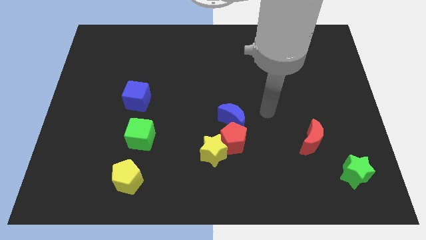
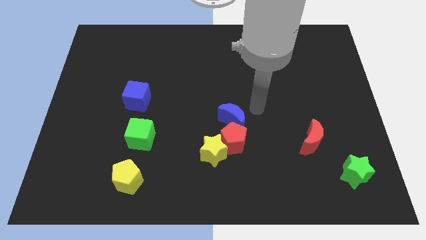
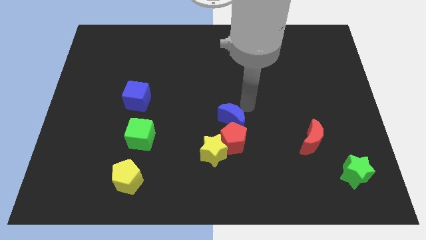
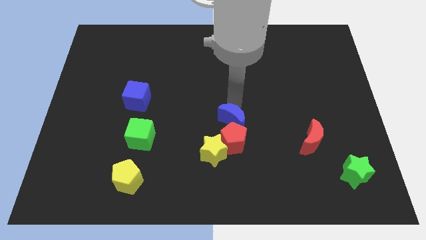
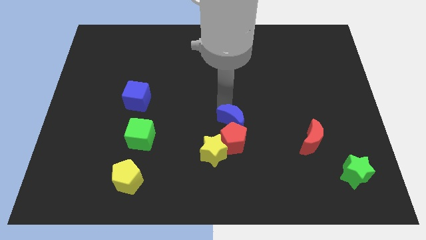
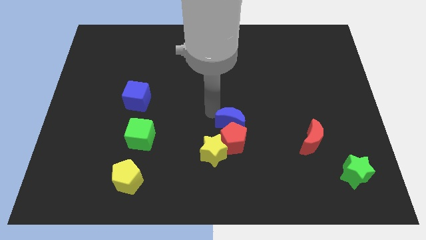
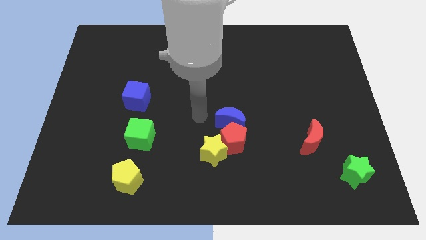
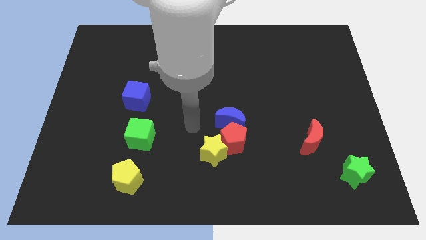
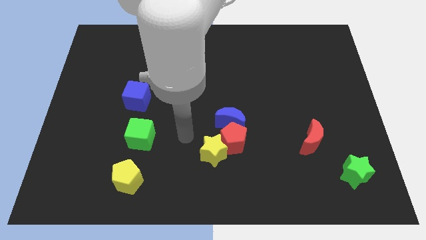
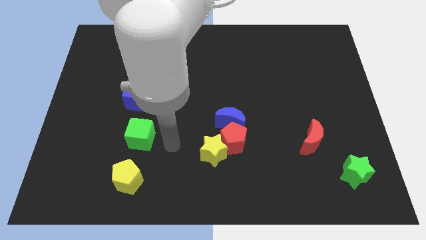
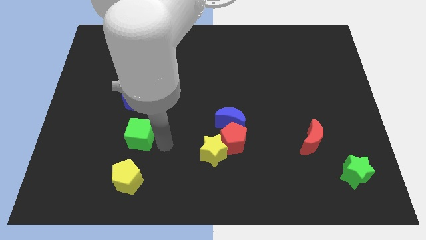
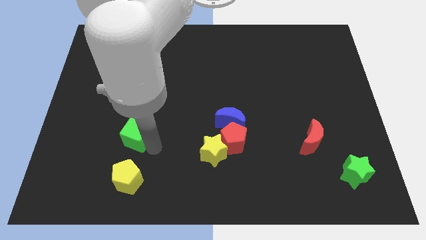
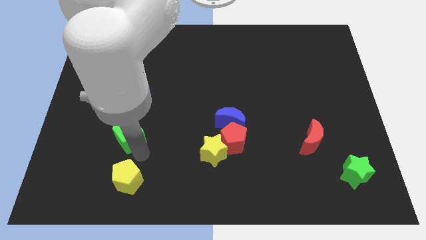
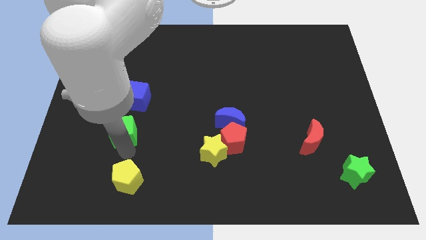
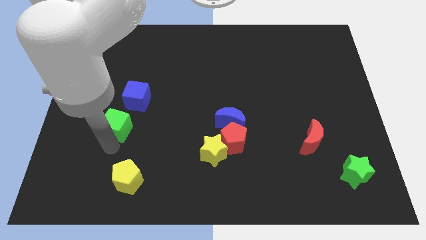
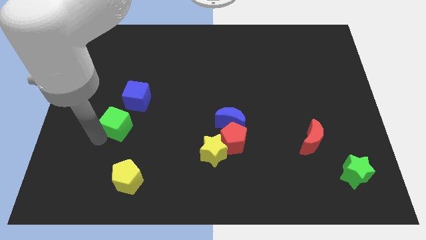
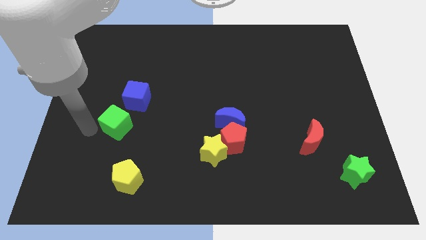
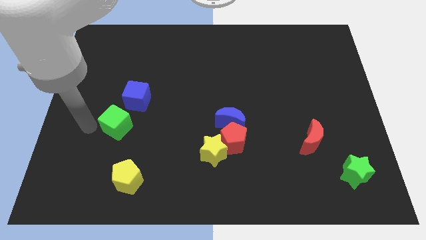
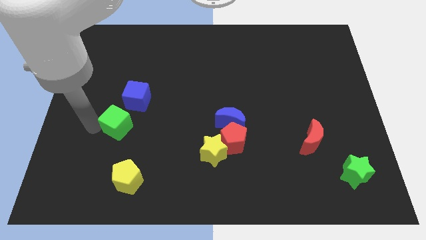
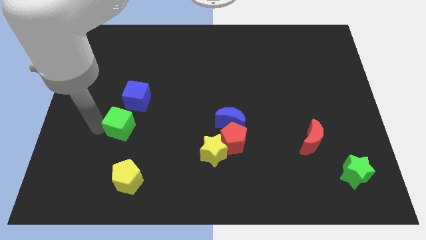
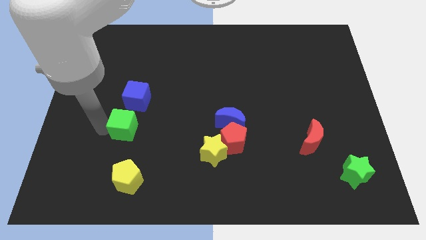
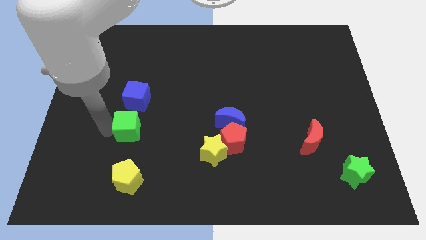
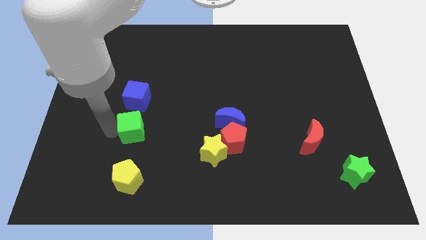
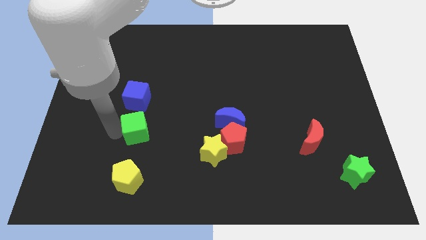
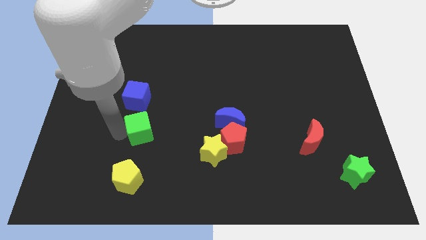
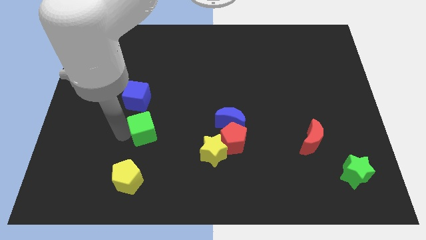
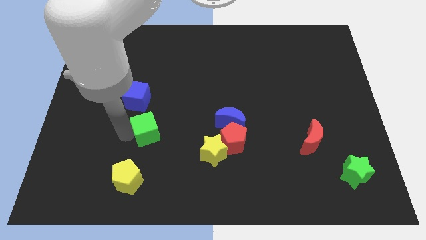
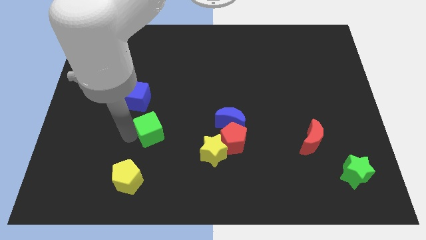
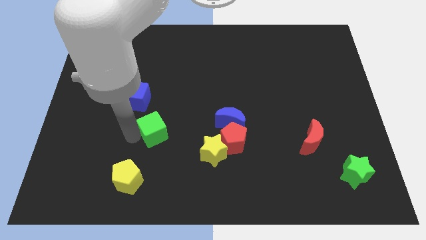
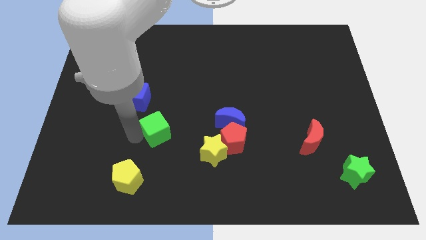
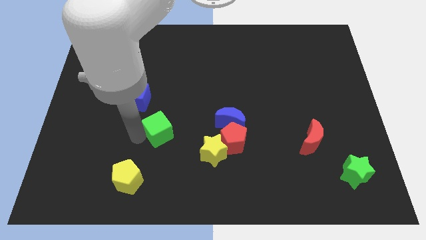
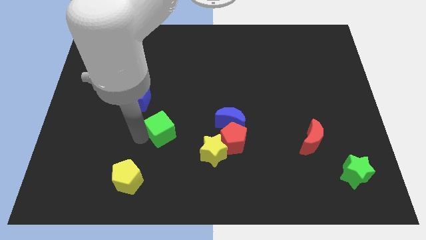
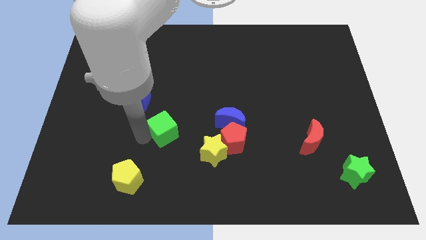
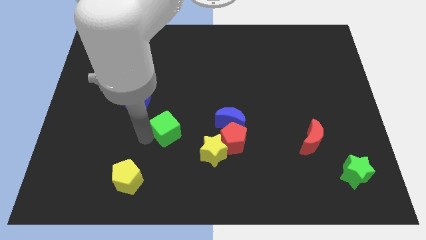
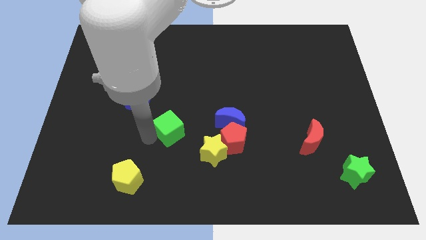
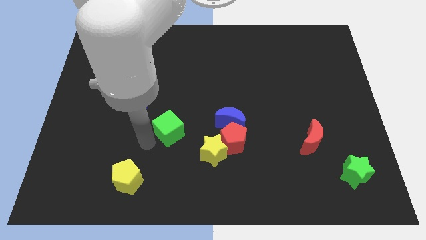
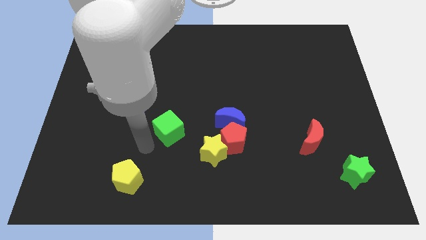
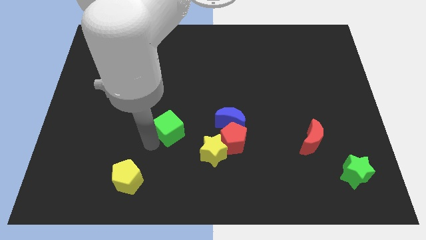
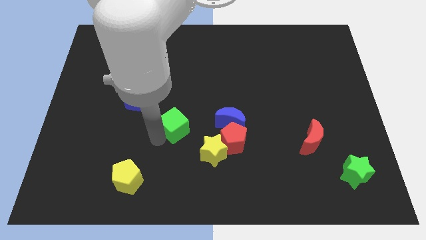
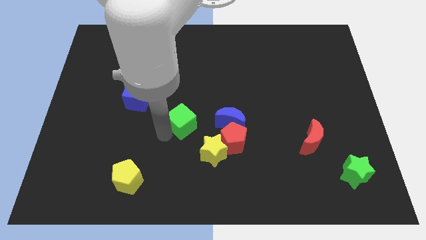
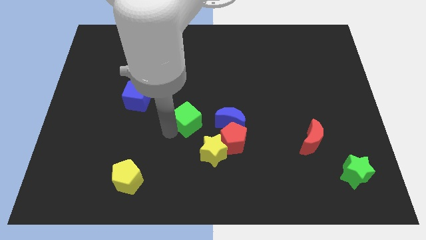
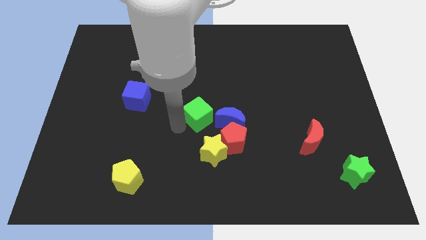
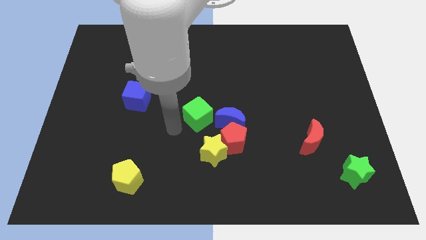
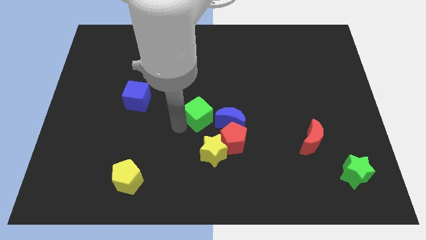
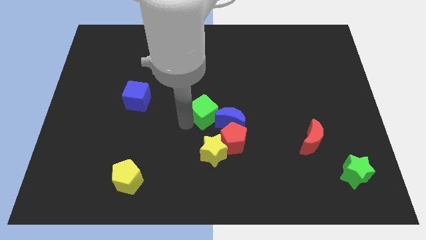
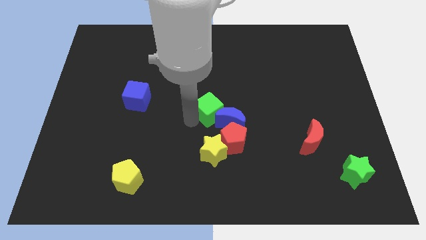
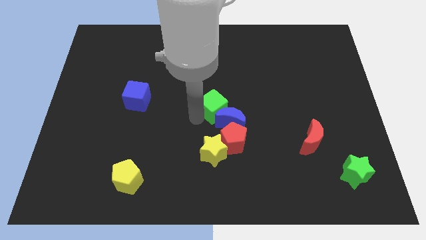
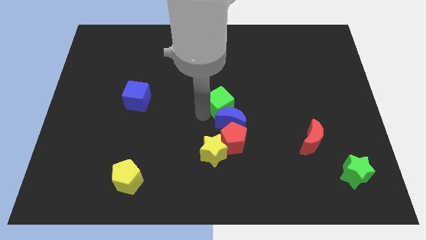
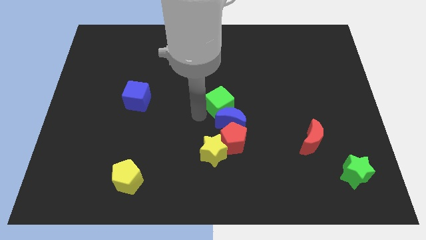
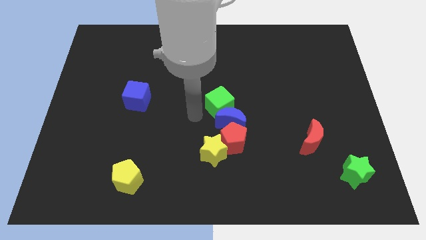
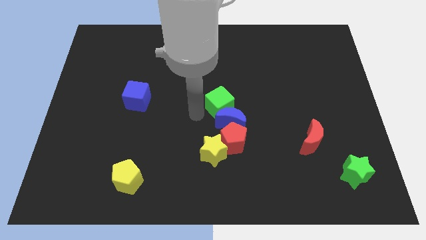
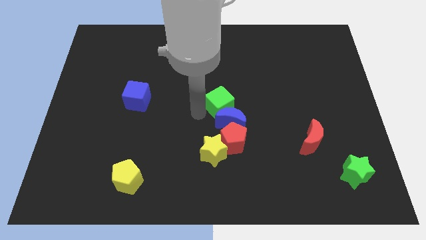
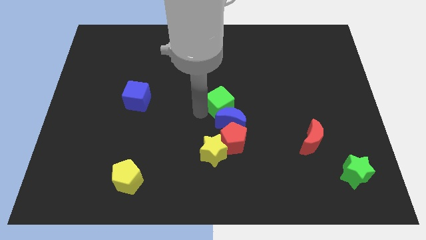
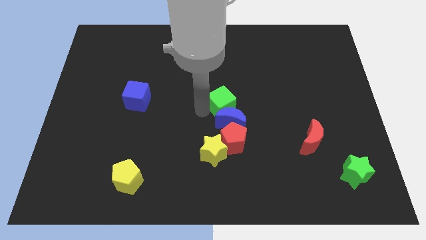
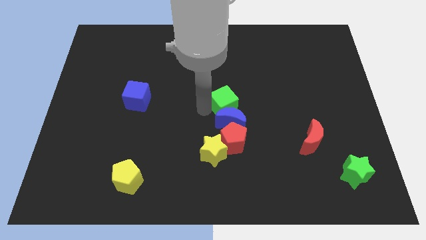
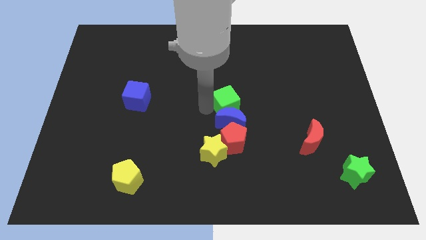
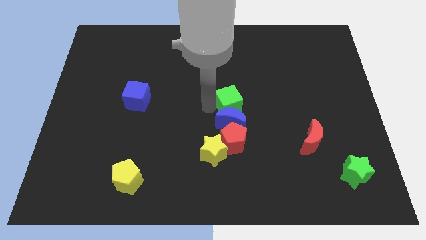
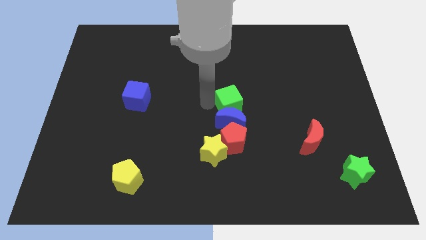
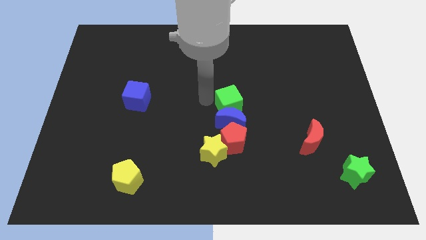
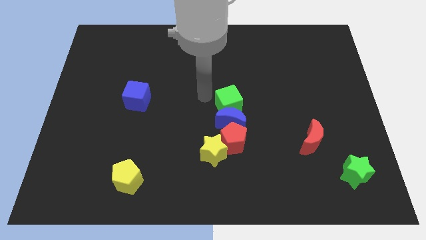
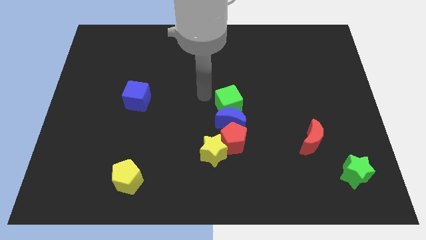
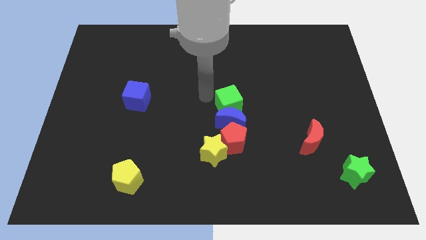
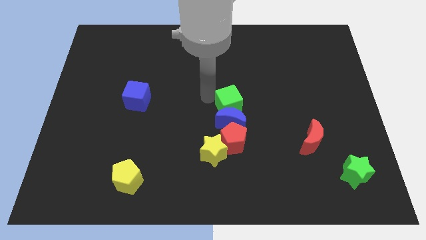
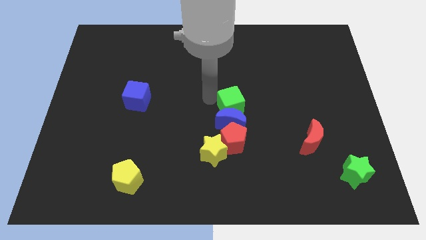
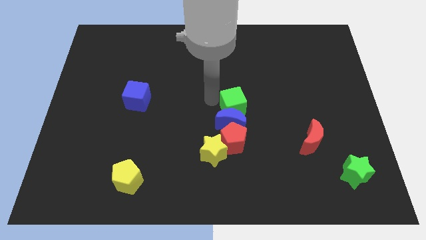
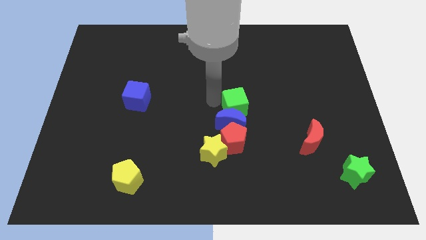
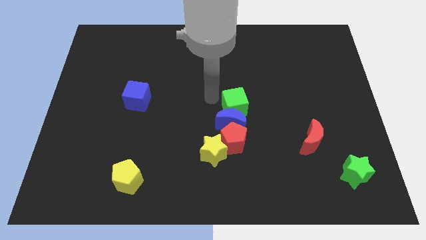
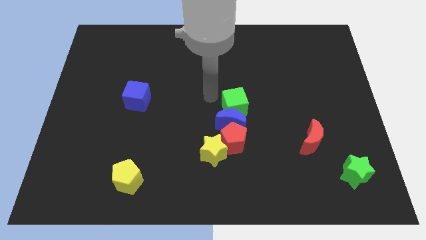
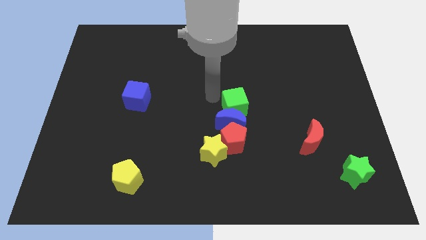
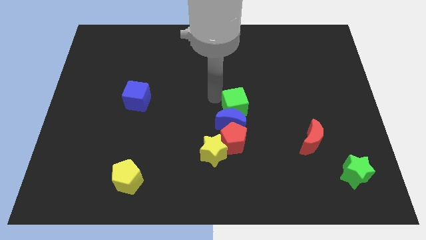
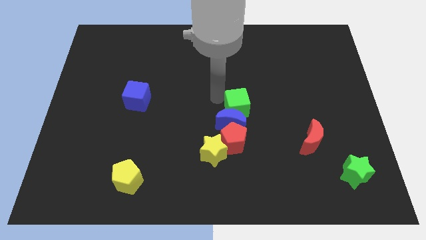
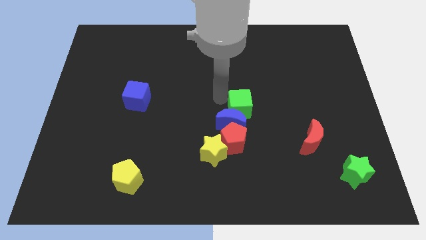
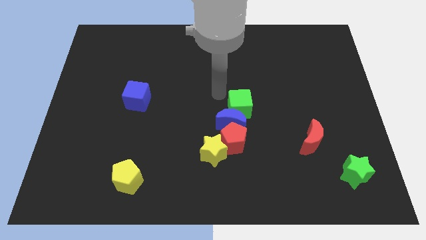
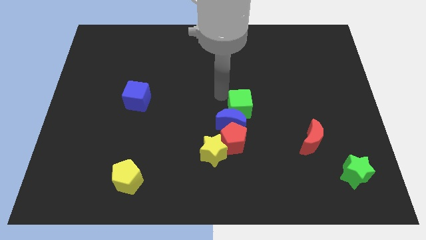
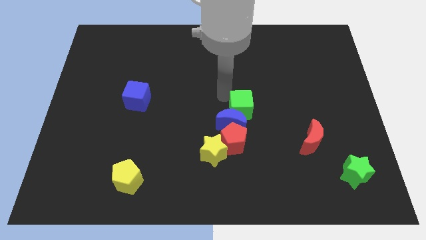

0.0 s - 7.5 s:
move the green cube to the right
